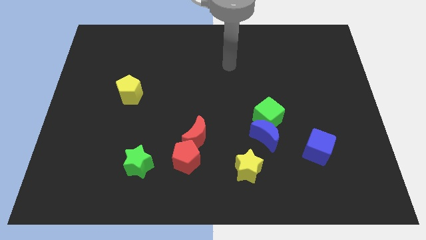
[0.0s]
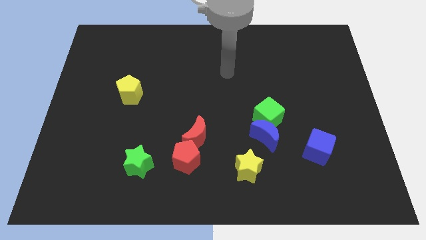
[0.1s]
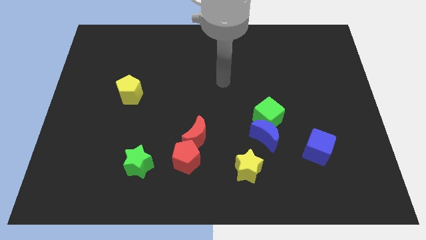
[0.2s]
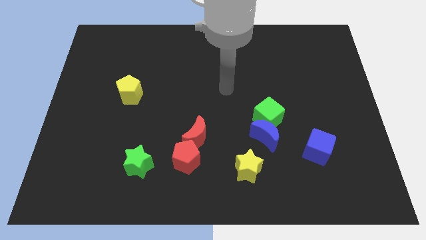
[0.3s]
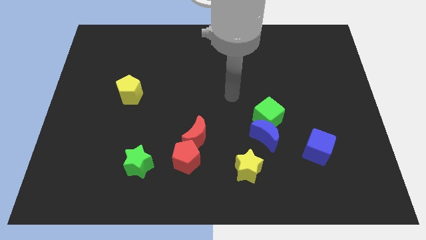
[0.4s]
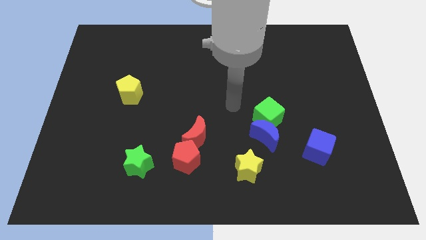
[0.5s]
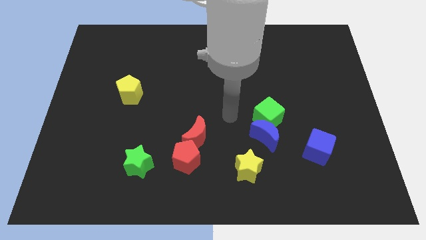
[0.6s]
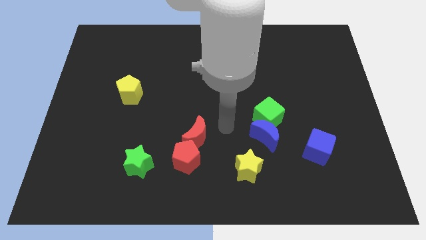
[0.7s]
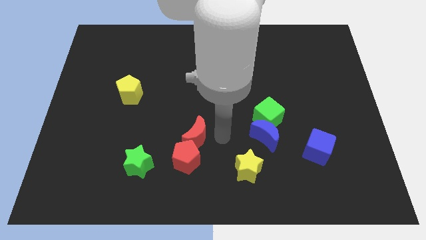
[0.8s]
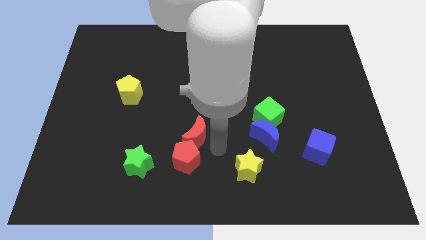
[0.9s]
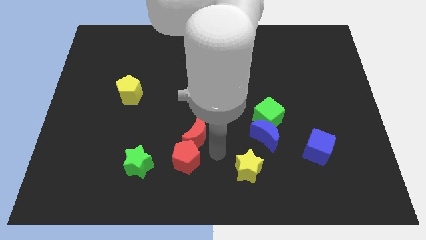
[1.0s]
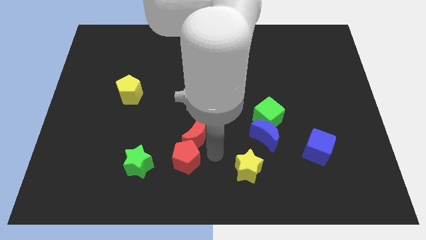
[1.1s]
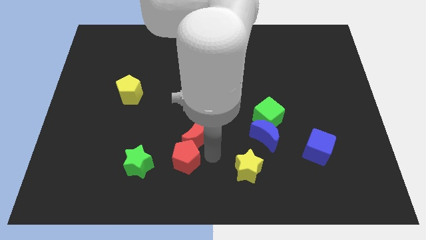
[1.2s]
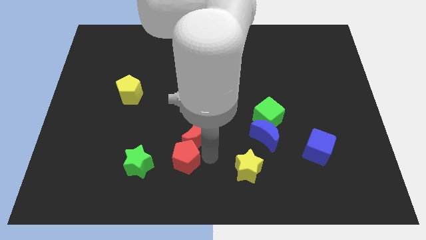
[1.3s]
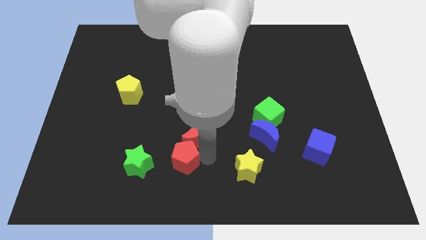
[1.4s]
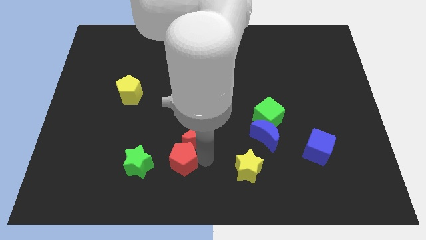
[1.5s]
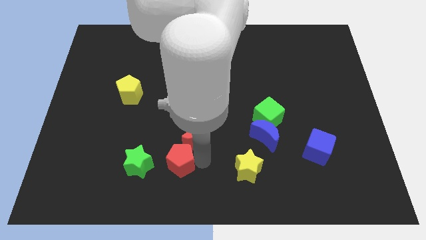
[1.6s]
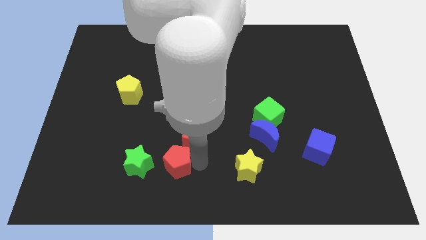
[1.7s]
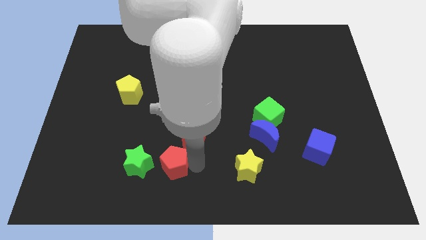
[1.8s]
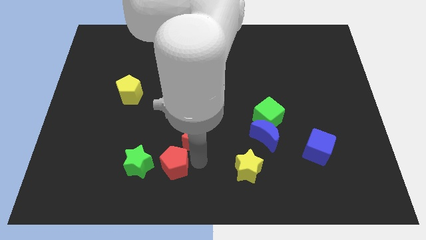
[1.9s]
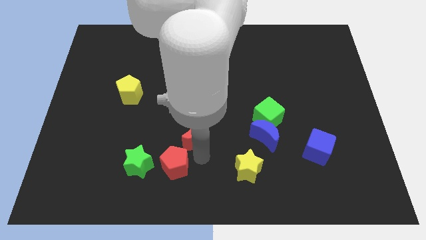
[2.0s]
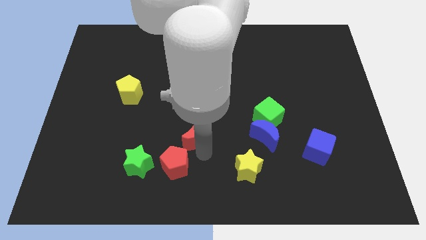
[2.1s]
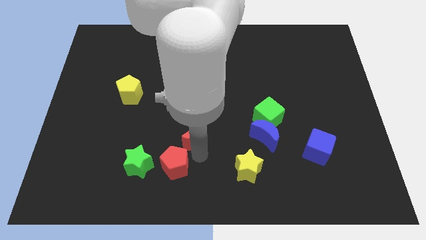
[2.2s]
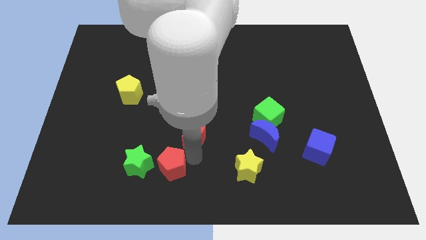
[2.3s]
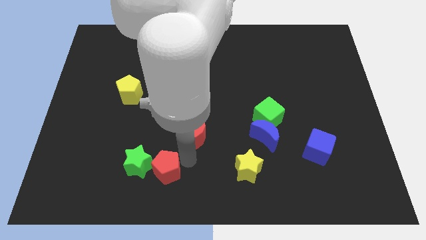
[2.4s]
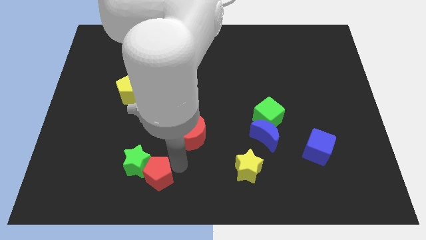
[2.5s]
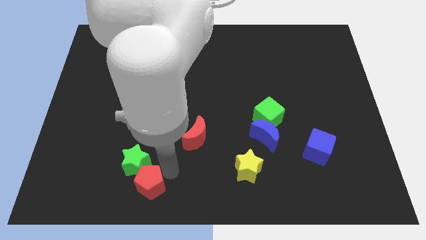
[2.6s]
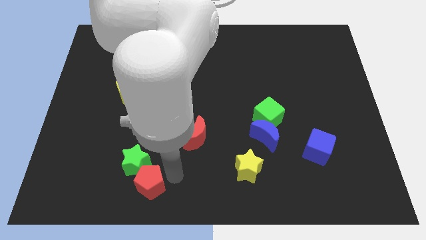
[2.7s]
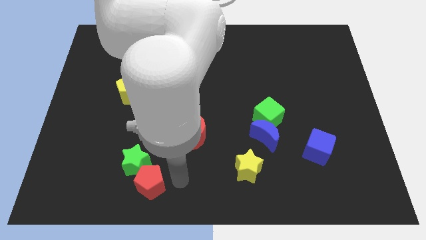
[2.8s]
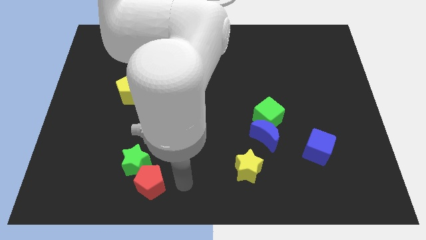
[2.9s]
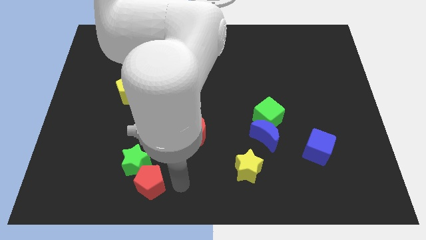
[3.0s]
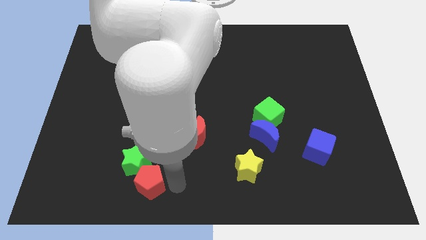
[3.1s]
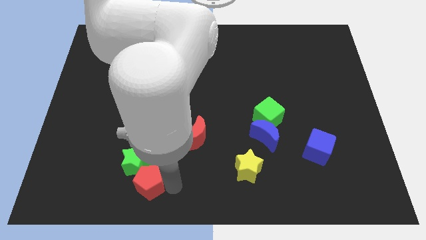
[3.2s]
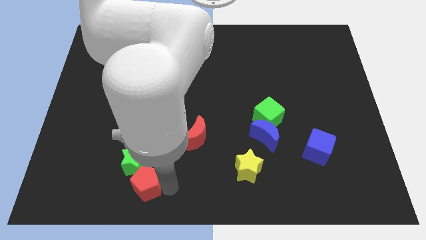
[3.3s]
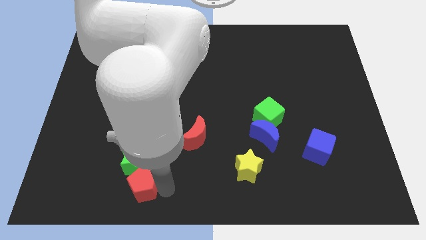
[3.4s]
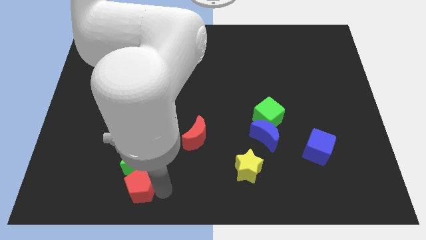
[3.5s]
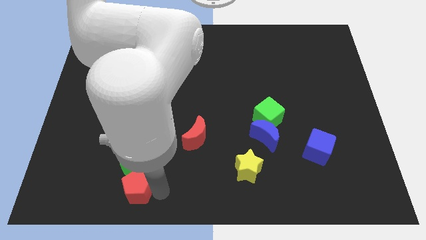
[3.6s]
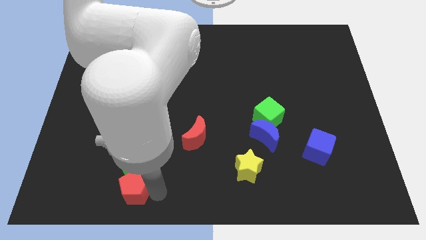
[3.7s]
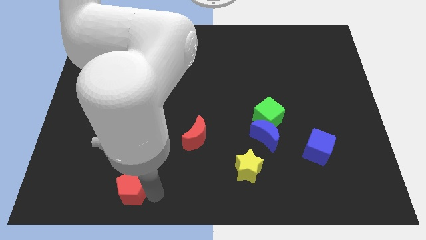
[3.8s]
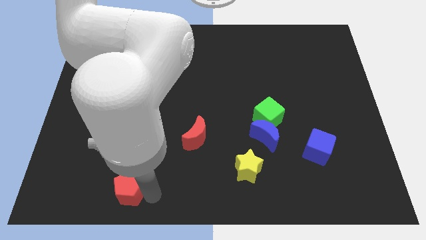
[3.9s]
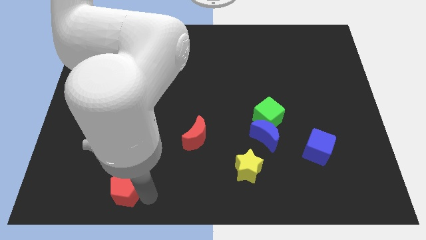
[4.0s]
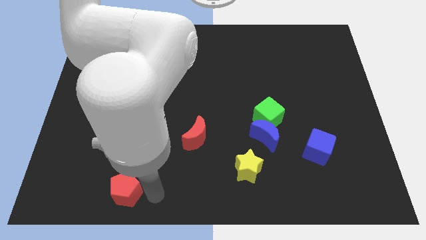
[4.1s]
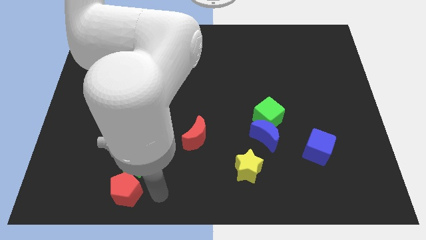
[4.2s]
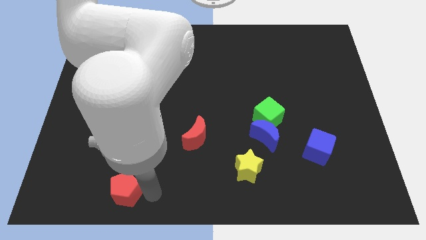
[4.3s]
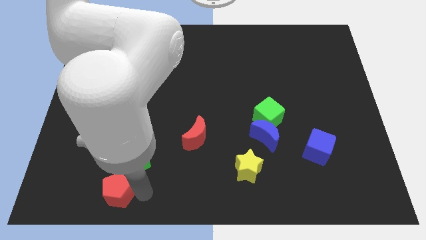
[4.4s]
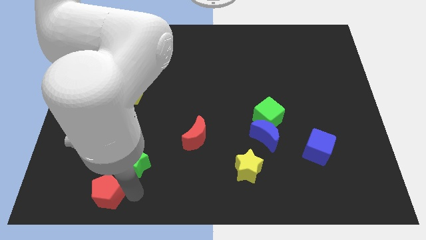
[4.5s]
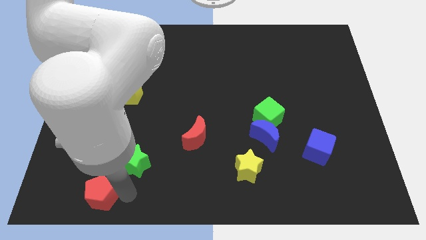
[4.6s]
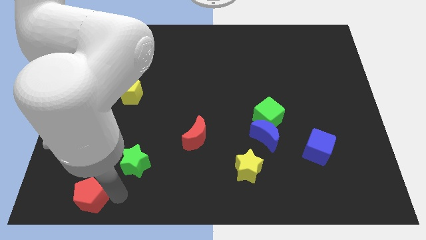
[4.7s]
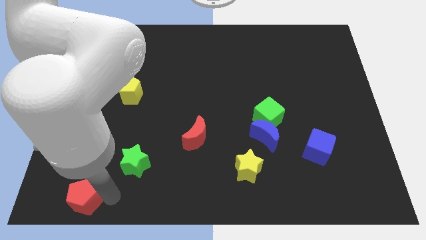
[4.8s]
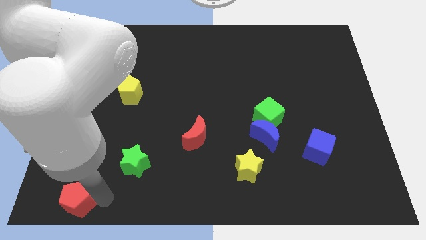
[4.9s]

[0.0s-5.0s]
move the red pentagon to the bottom left corner

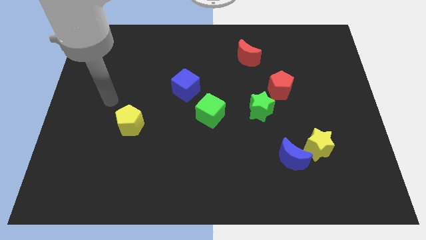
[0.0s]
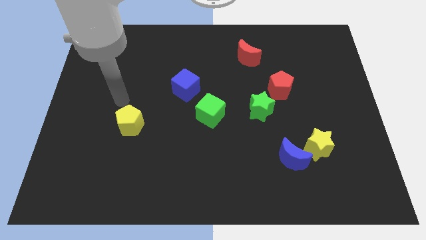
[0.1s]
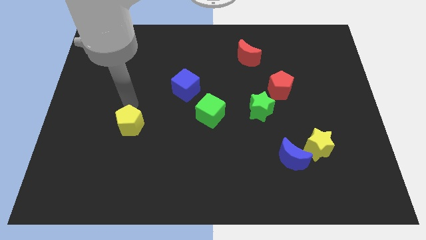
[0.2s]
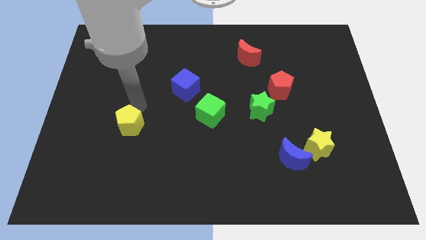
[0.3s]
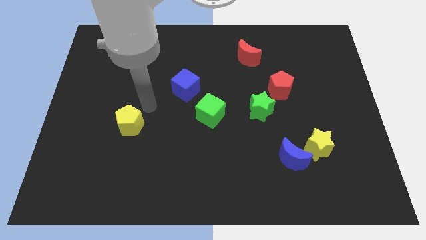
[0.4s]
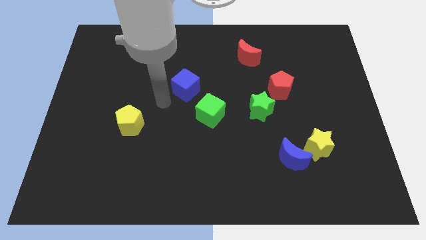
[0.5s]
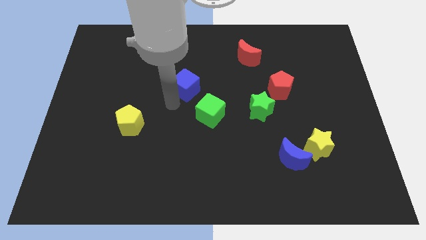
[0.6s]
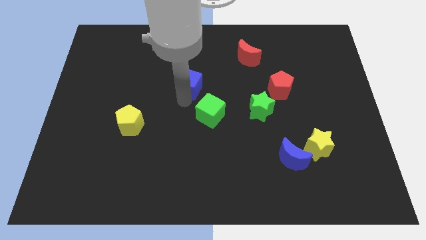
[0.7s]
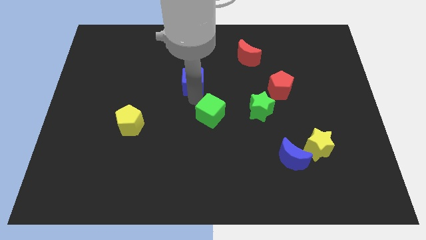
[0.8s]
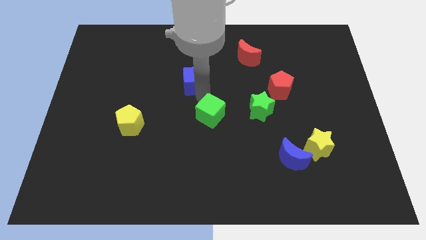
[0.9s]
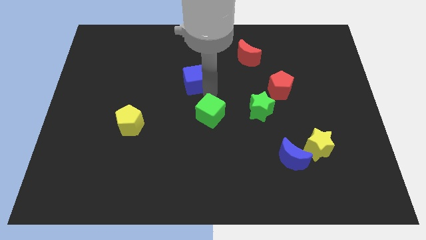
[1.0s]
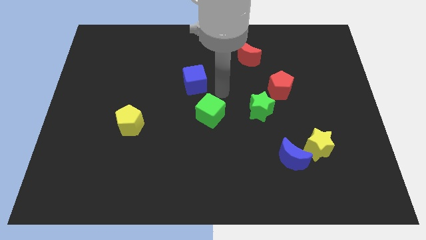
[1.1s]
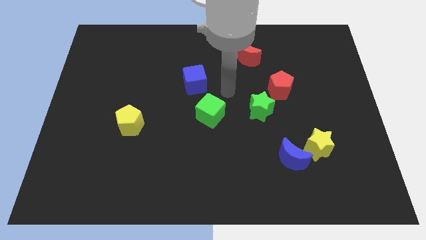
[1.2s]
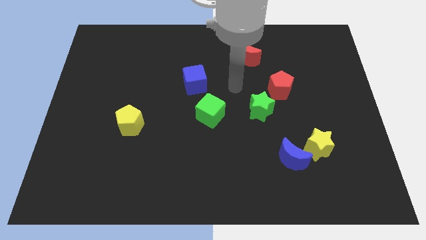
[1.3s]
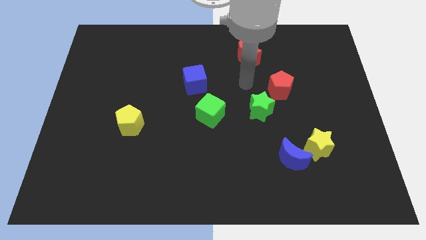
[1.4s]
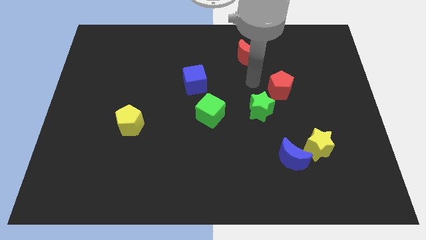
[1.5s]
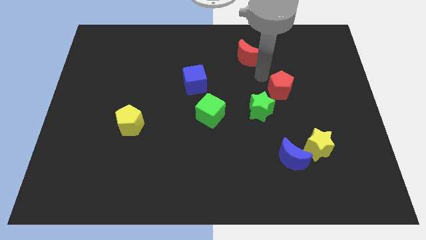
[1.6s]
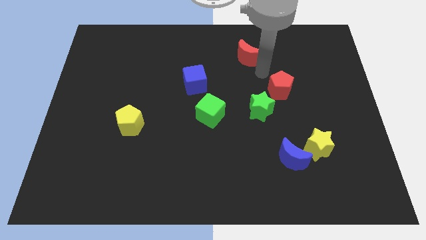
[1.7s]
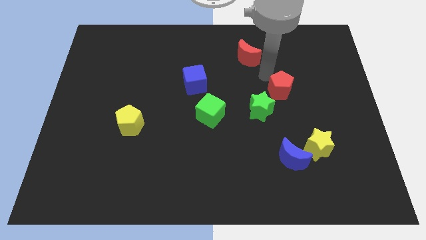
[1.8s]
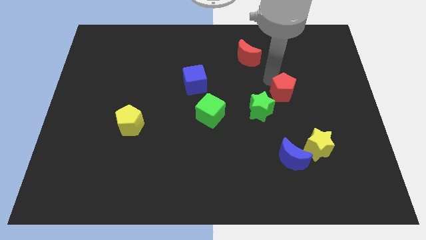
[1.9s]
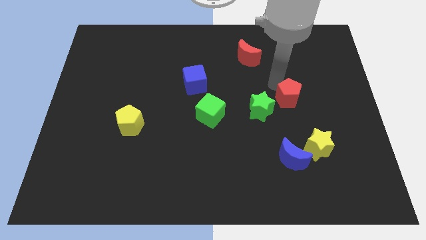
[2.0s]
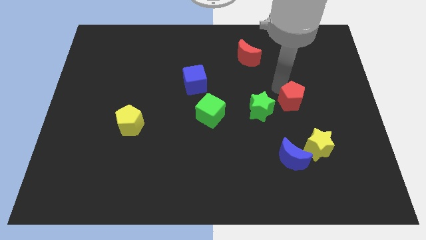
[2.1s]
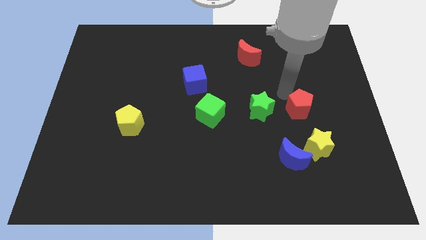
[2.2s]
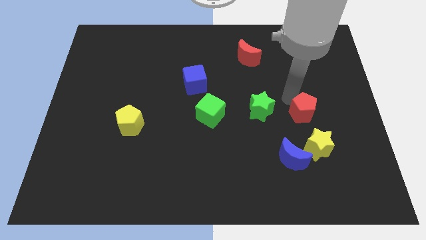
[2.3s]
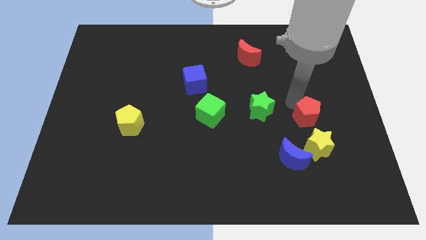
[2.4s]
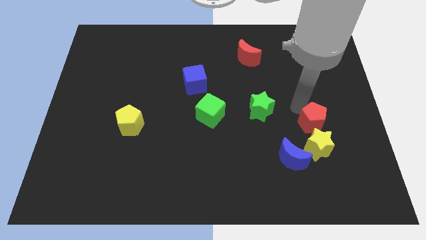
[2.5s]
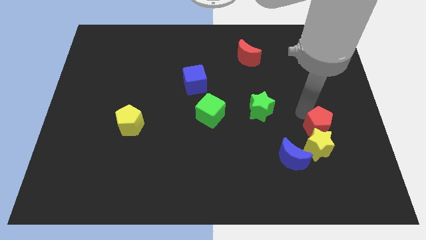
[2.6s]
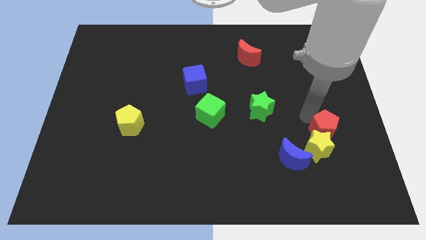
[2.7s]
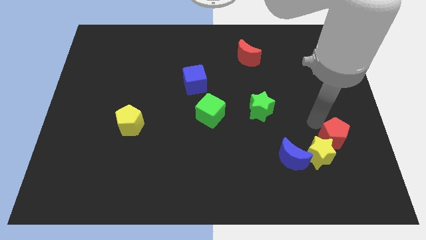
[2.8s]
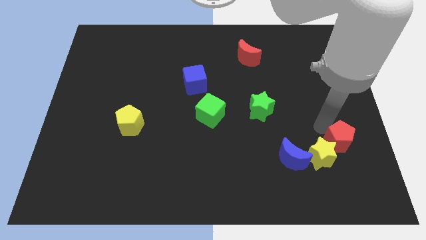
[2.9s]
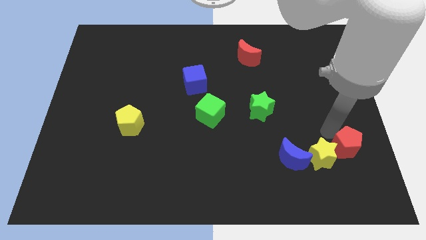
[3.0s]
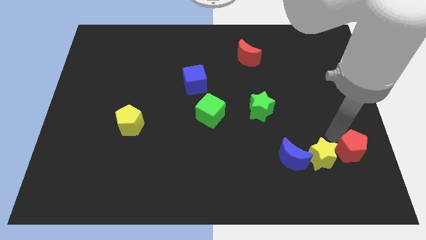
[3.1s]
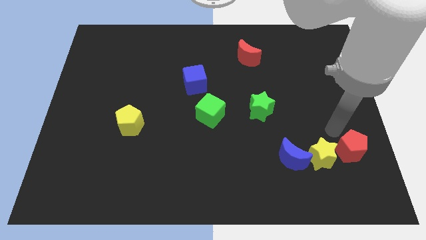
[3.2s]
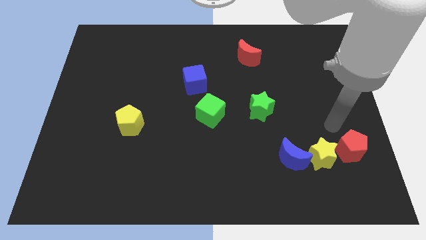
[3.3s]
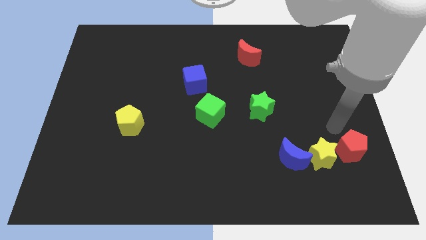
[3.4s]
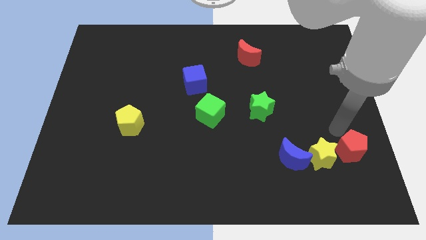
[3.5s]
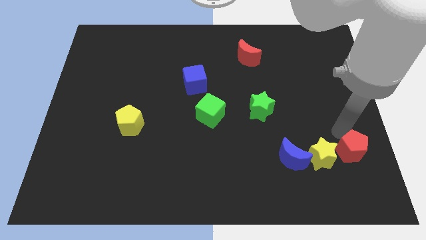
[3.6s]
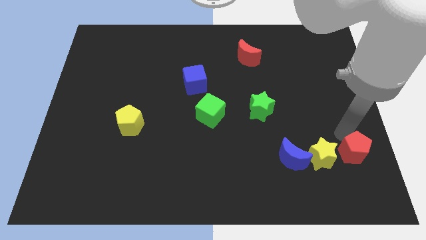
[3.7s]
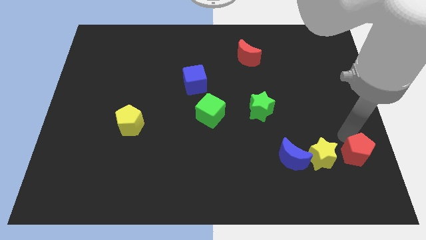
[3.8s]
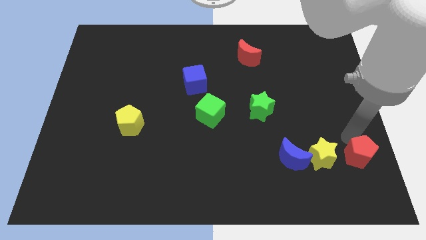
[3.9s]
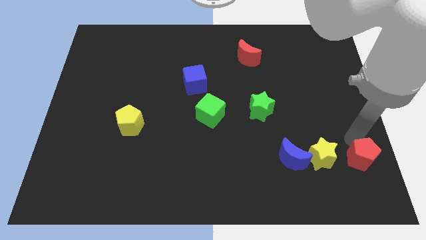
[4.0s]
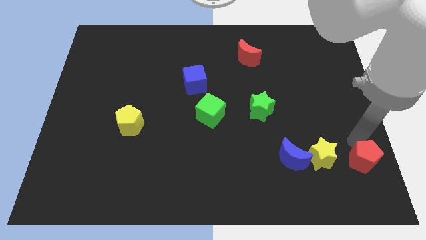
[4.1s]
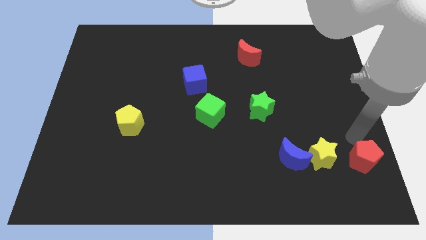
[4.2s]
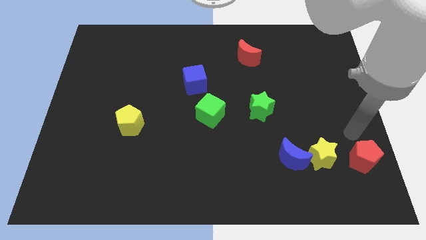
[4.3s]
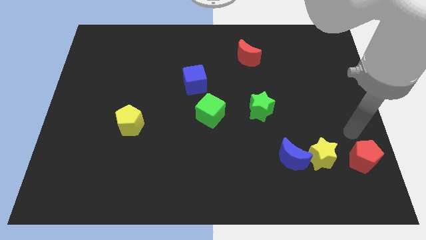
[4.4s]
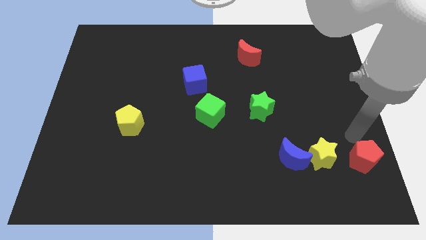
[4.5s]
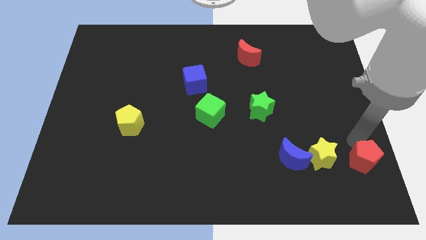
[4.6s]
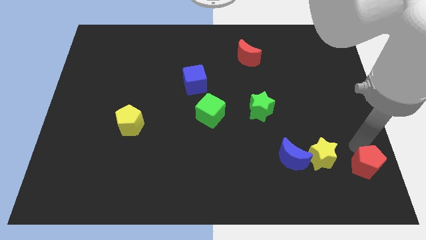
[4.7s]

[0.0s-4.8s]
push the red pentagon to the bottom right
